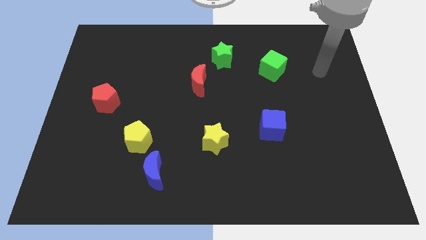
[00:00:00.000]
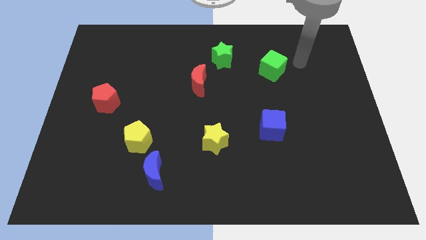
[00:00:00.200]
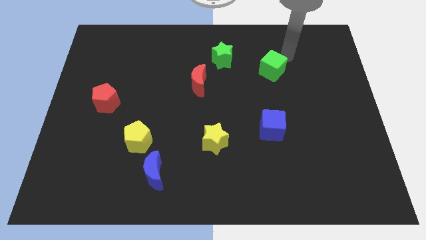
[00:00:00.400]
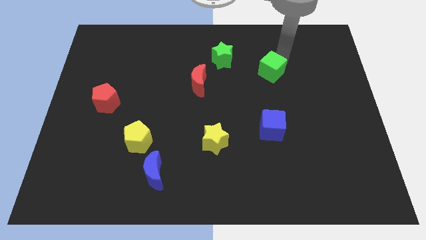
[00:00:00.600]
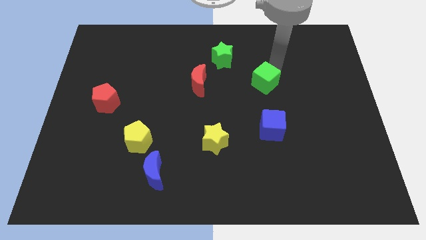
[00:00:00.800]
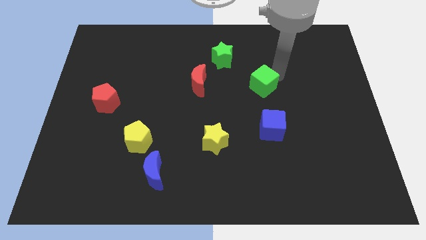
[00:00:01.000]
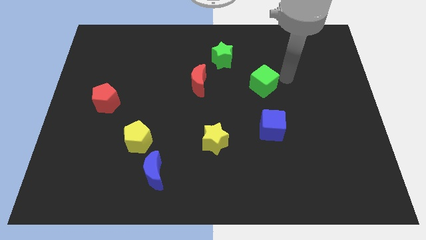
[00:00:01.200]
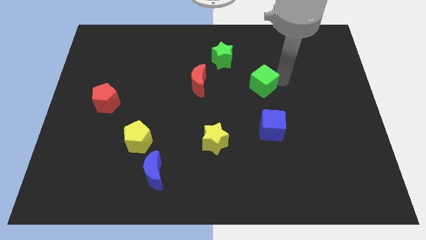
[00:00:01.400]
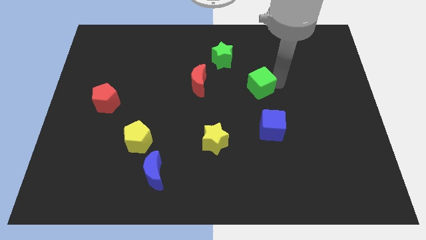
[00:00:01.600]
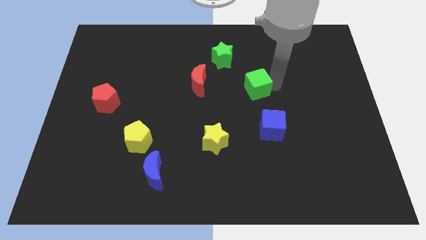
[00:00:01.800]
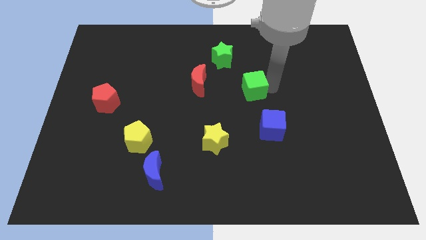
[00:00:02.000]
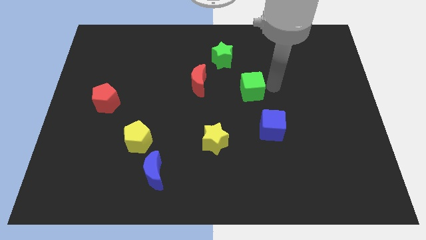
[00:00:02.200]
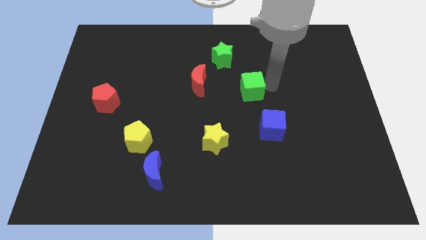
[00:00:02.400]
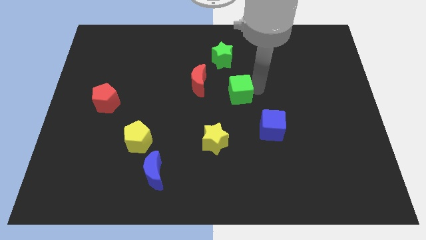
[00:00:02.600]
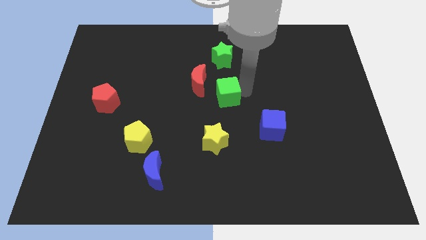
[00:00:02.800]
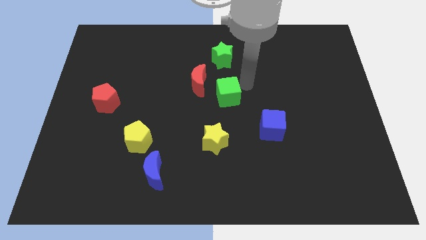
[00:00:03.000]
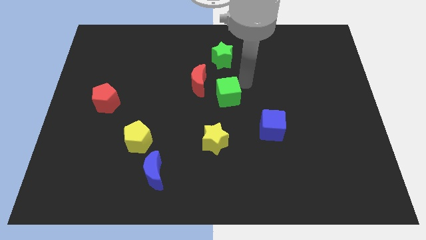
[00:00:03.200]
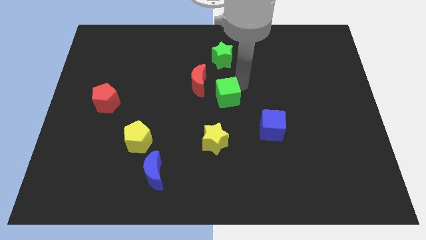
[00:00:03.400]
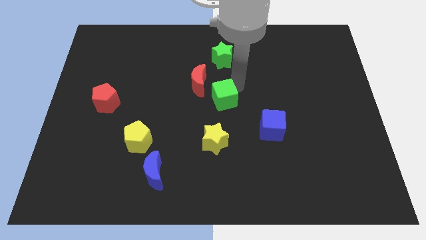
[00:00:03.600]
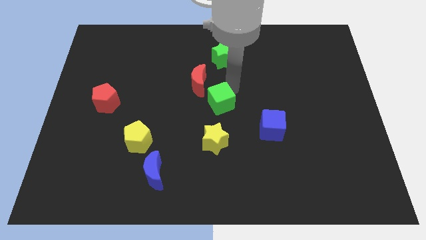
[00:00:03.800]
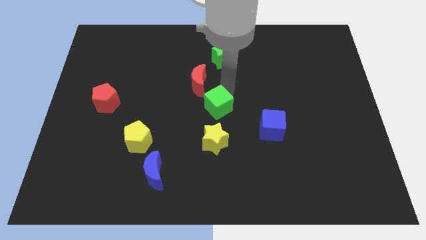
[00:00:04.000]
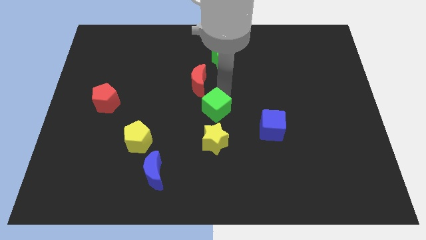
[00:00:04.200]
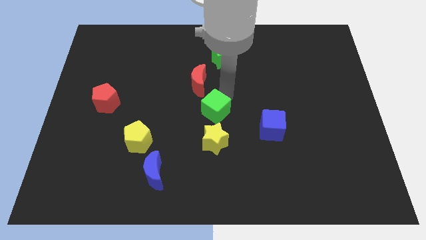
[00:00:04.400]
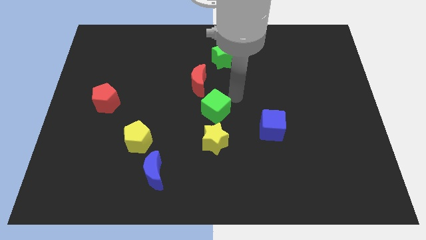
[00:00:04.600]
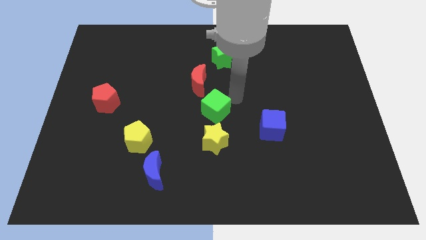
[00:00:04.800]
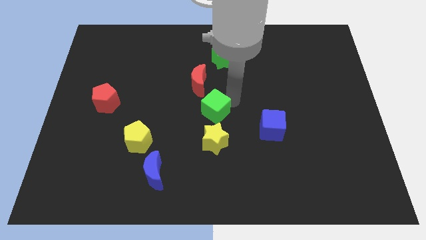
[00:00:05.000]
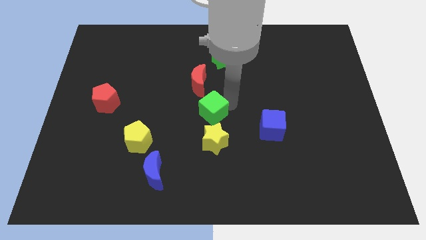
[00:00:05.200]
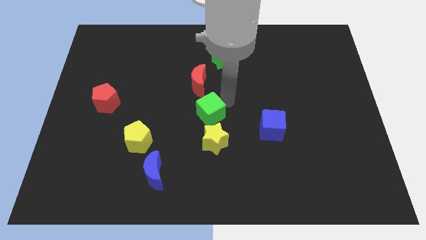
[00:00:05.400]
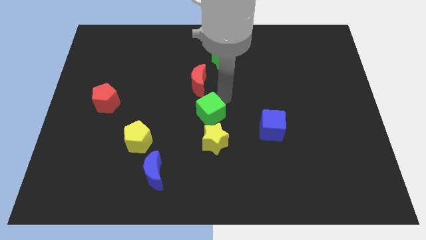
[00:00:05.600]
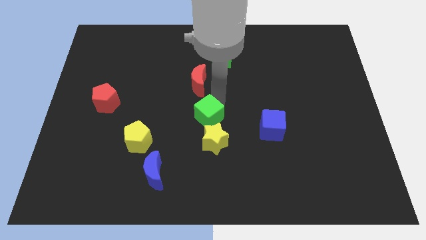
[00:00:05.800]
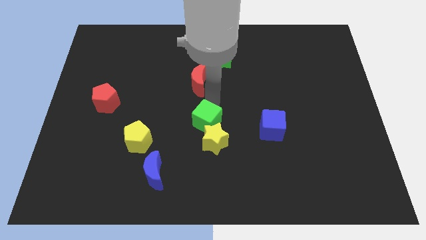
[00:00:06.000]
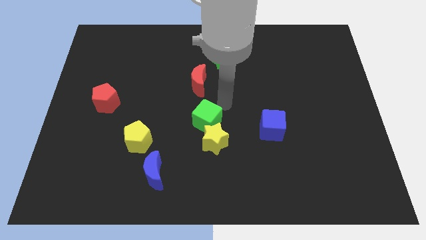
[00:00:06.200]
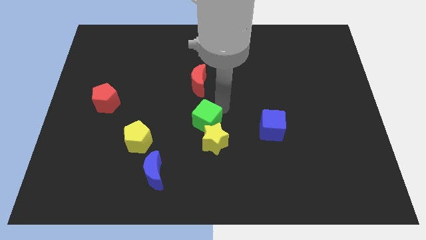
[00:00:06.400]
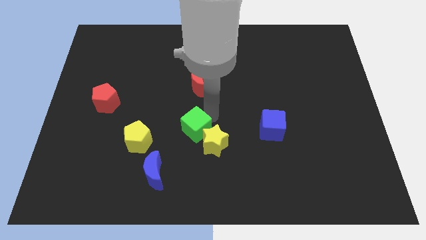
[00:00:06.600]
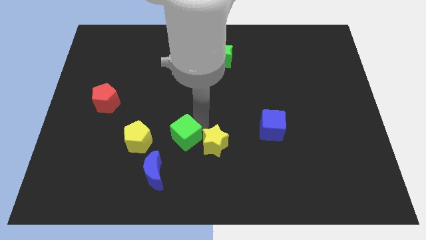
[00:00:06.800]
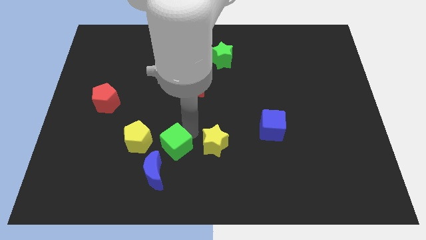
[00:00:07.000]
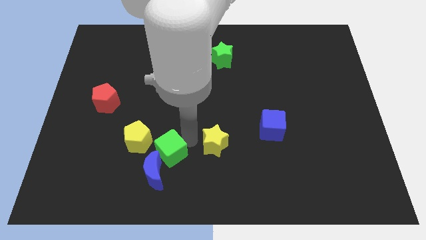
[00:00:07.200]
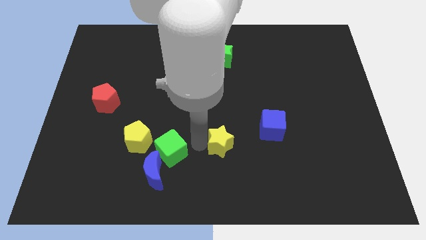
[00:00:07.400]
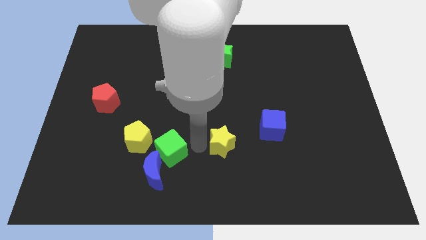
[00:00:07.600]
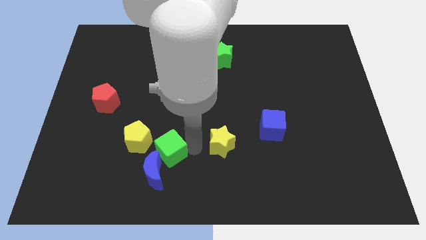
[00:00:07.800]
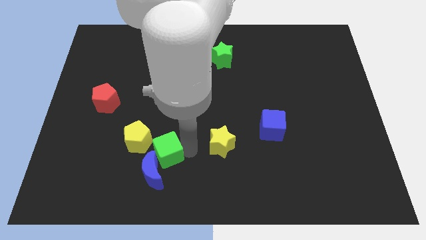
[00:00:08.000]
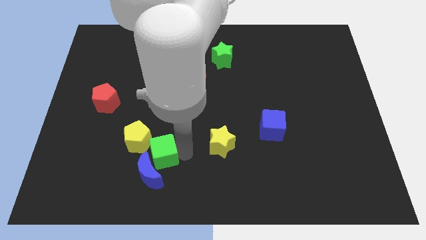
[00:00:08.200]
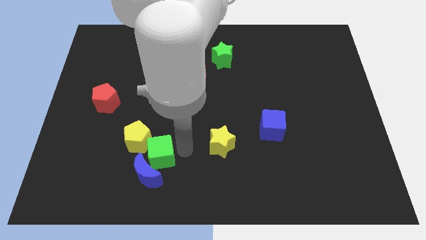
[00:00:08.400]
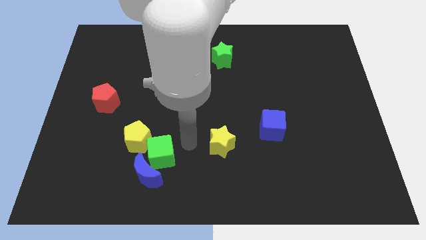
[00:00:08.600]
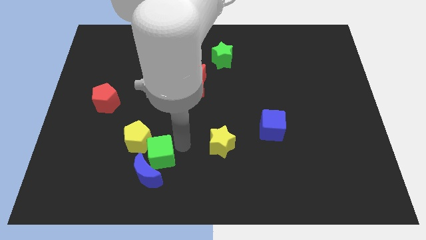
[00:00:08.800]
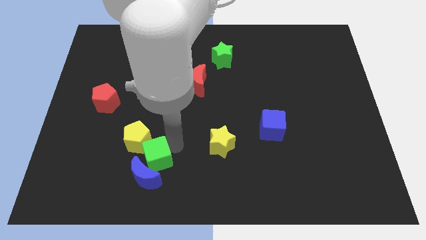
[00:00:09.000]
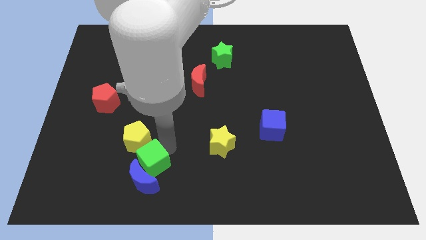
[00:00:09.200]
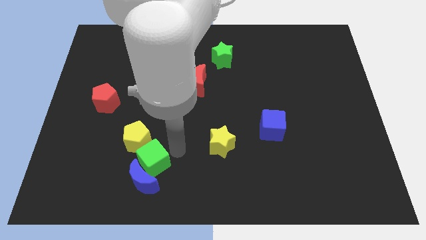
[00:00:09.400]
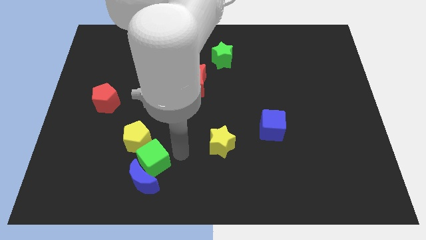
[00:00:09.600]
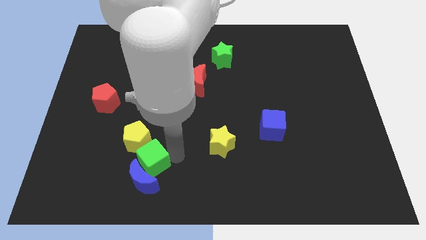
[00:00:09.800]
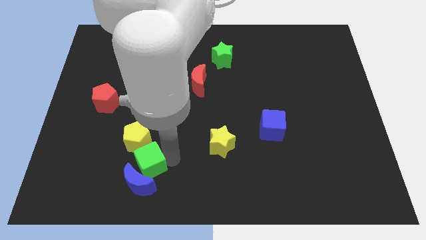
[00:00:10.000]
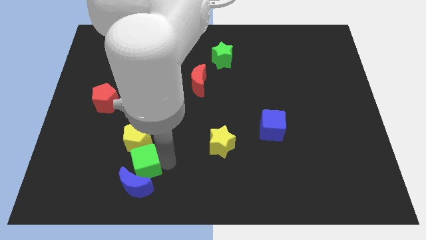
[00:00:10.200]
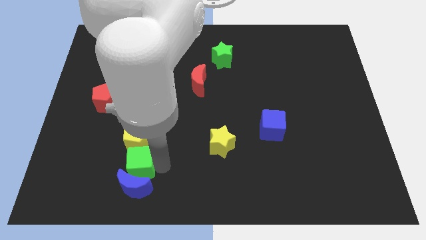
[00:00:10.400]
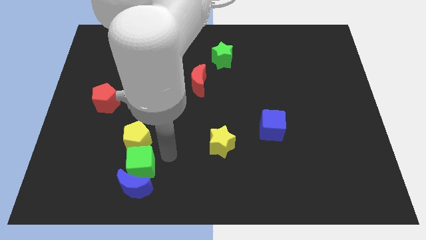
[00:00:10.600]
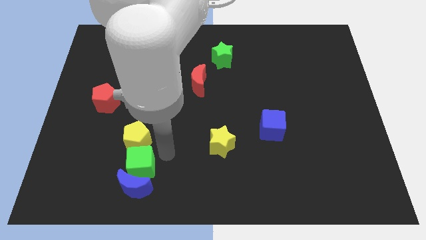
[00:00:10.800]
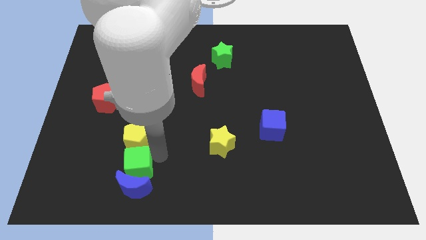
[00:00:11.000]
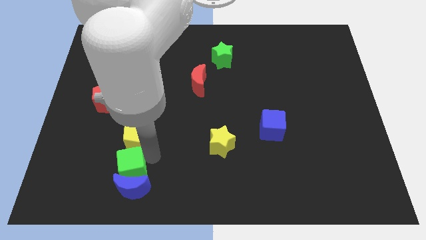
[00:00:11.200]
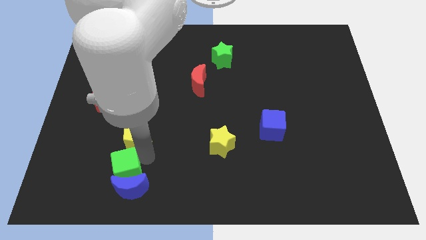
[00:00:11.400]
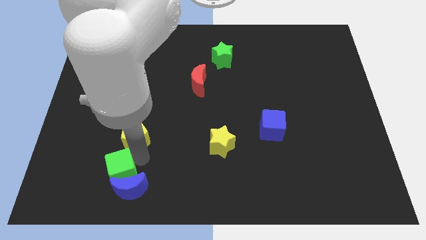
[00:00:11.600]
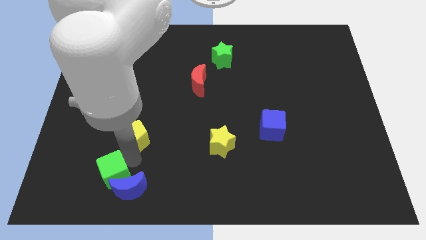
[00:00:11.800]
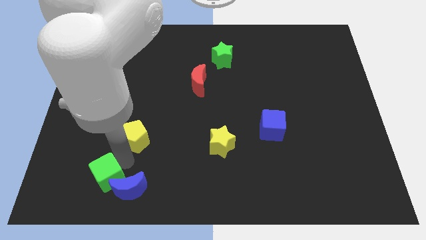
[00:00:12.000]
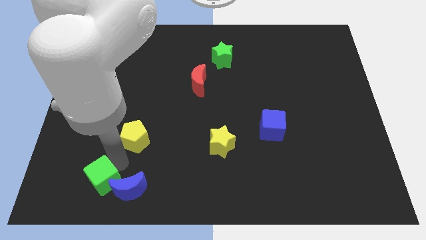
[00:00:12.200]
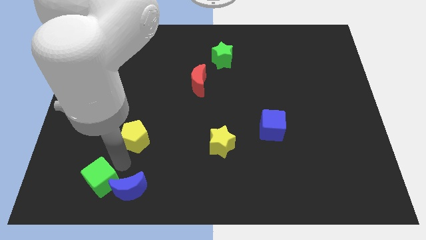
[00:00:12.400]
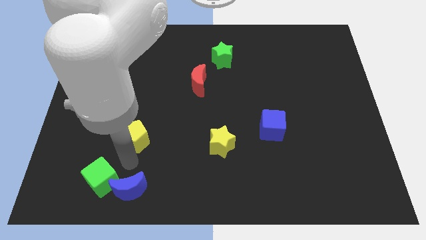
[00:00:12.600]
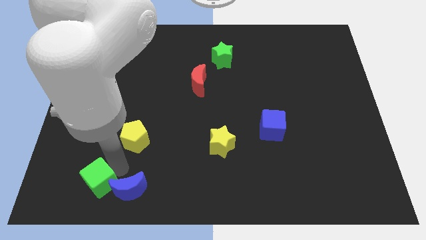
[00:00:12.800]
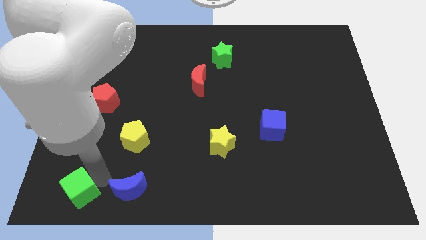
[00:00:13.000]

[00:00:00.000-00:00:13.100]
push the green cube to the bottom left
